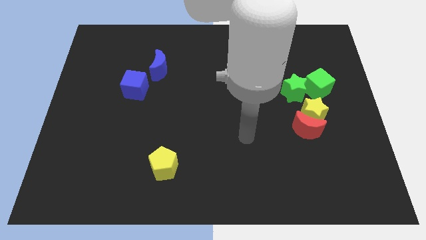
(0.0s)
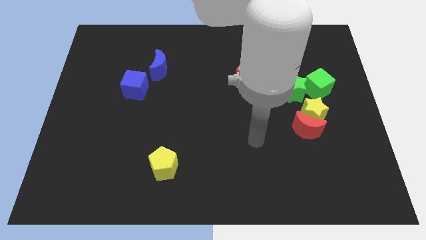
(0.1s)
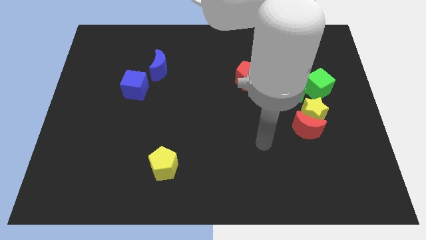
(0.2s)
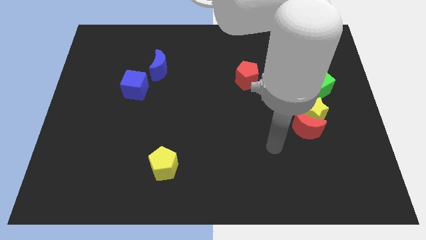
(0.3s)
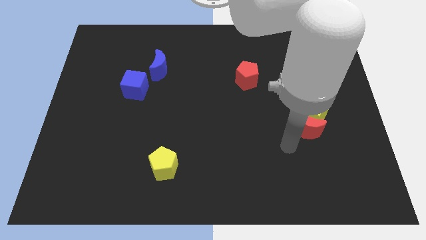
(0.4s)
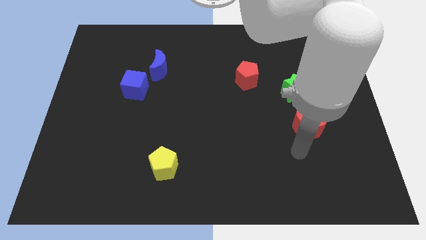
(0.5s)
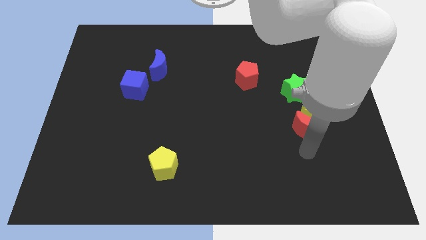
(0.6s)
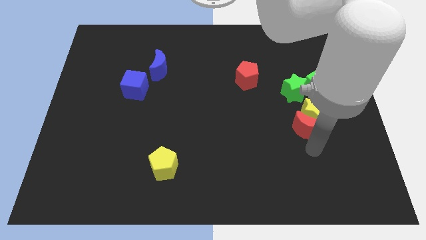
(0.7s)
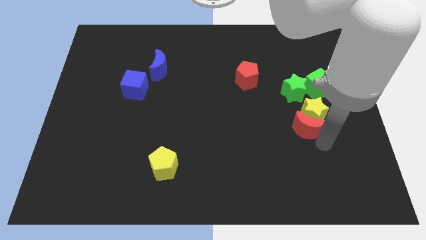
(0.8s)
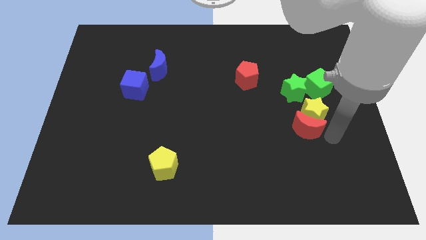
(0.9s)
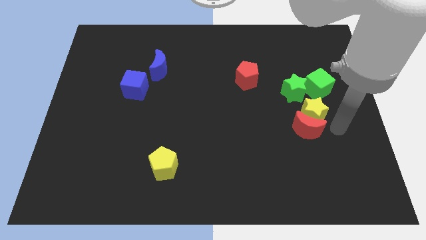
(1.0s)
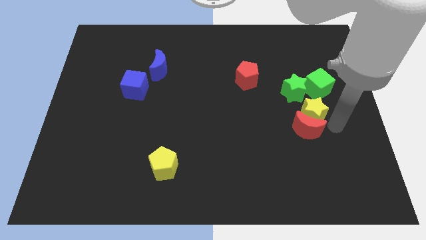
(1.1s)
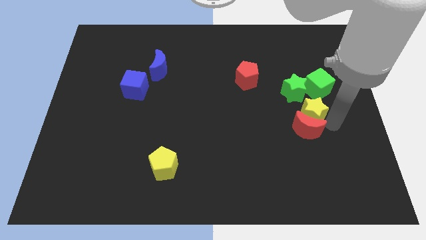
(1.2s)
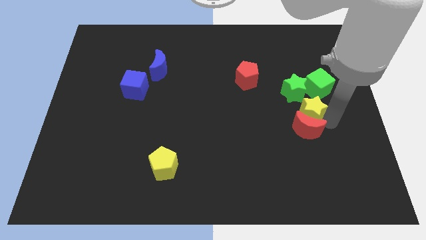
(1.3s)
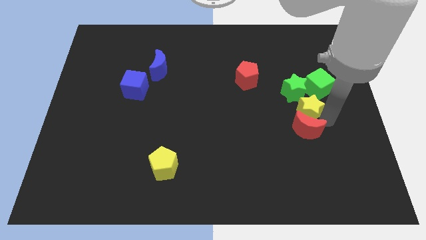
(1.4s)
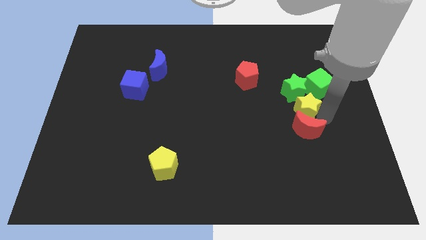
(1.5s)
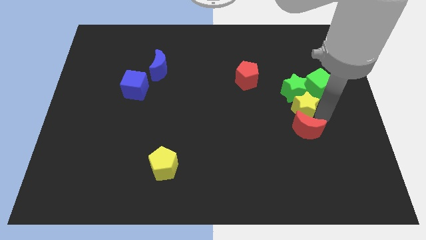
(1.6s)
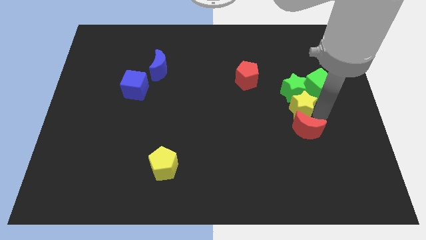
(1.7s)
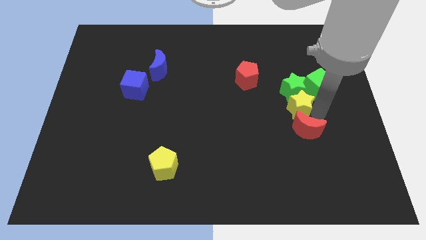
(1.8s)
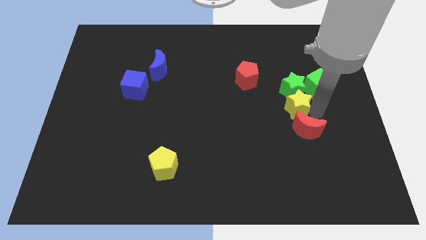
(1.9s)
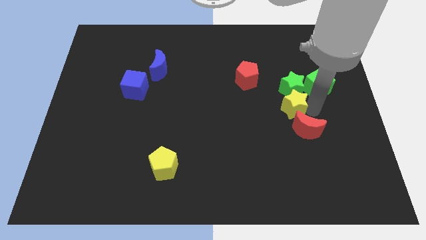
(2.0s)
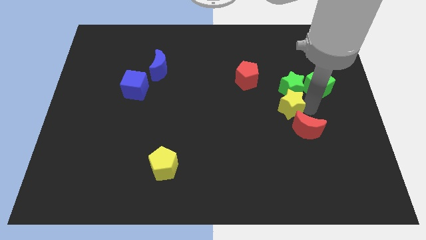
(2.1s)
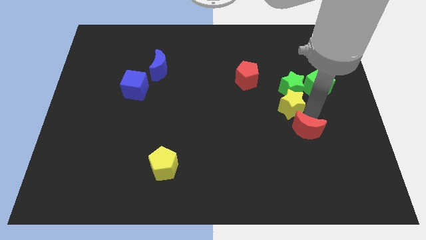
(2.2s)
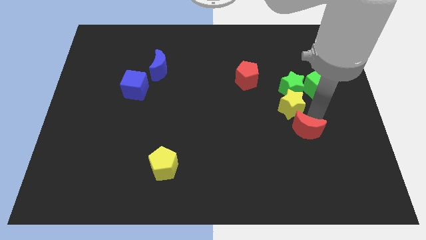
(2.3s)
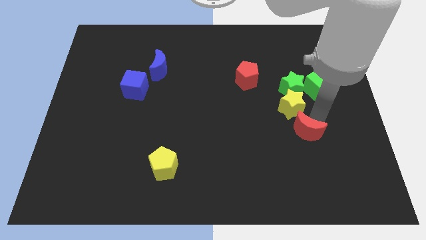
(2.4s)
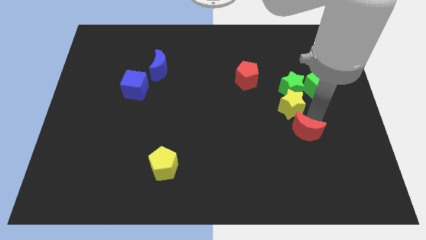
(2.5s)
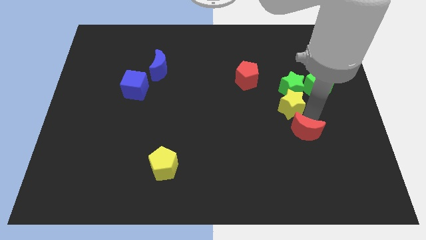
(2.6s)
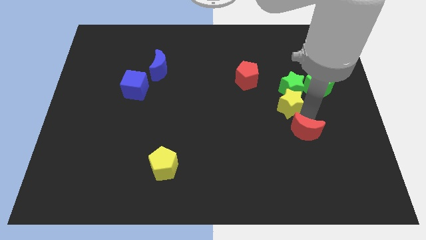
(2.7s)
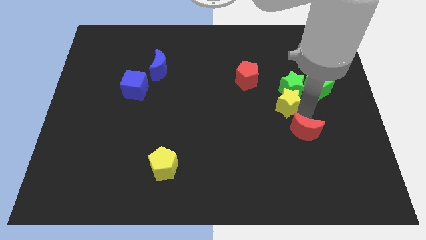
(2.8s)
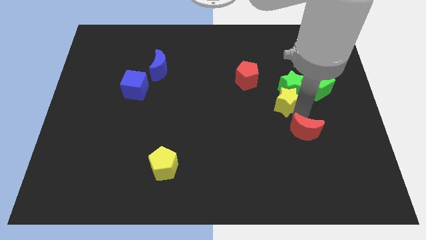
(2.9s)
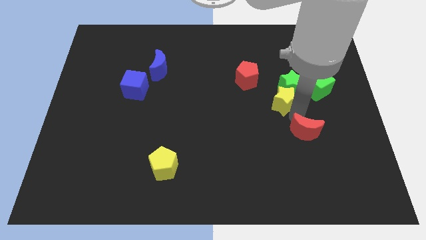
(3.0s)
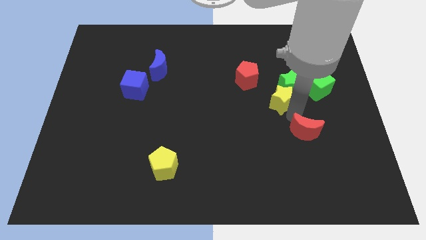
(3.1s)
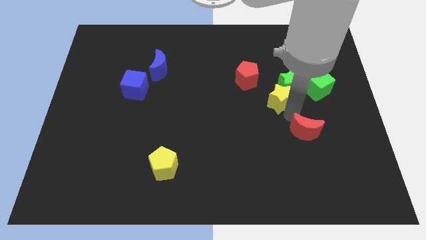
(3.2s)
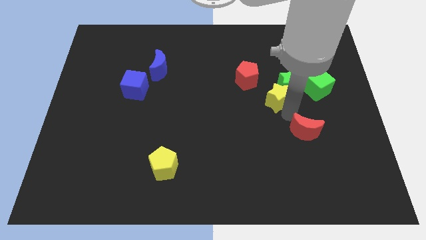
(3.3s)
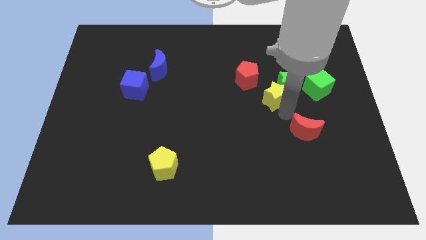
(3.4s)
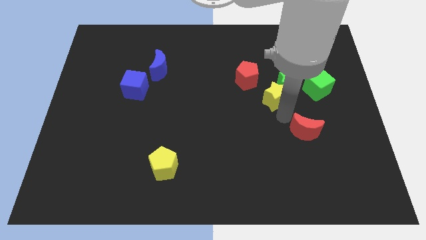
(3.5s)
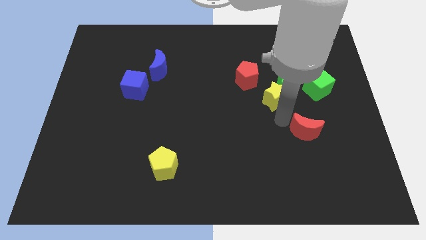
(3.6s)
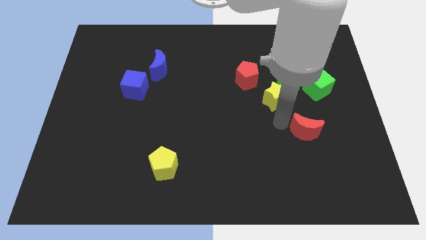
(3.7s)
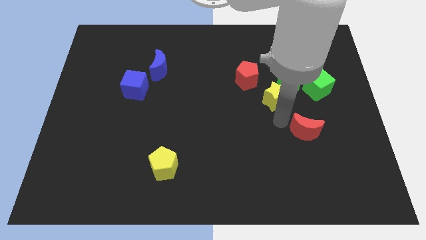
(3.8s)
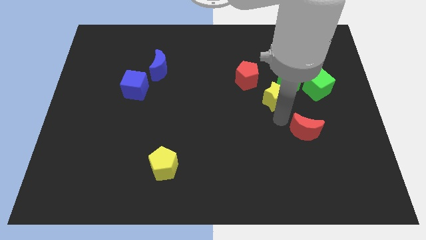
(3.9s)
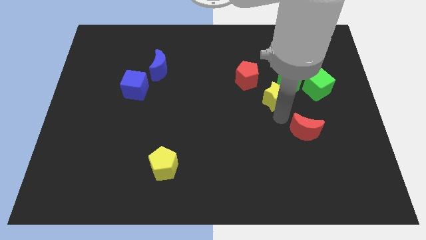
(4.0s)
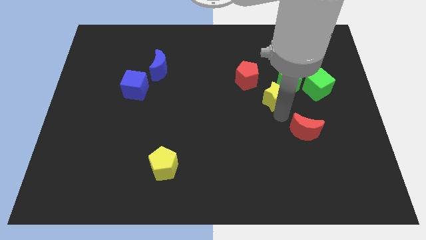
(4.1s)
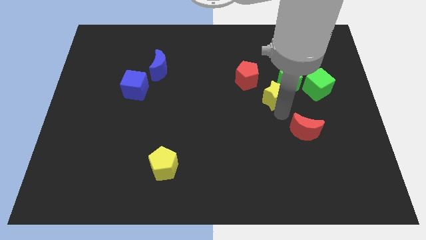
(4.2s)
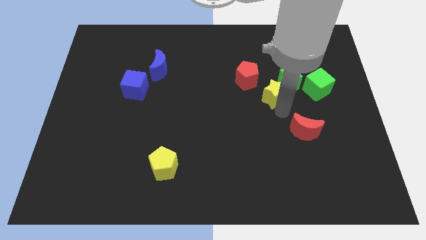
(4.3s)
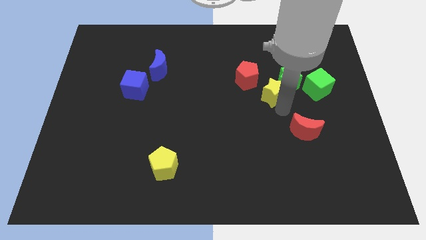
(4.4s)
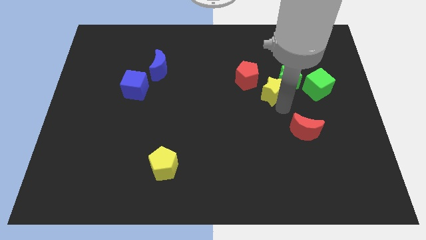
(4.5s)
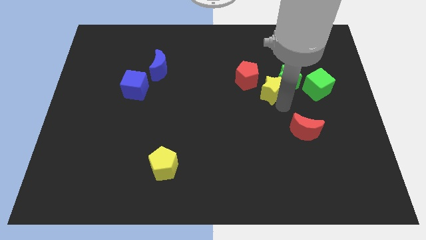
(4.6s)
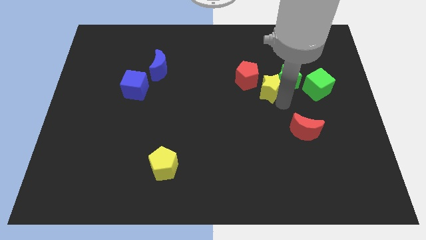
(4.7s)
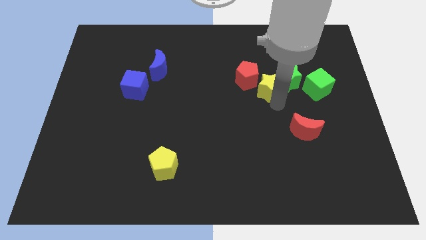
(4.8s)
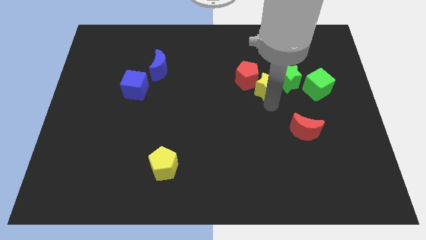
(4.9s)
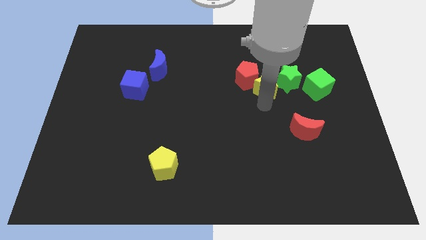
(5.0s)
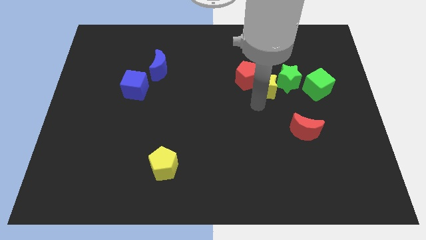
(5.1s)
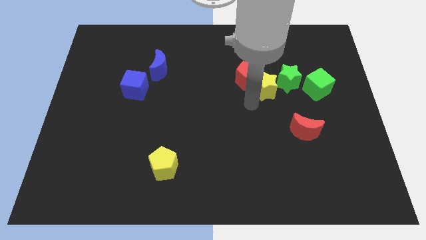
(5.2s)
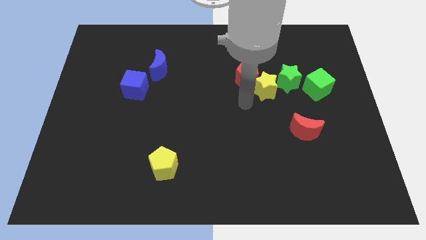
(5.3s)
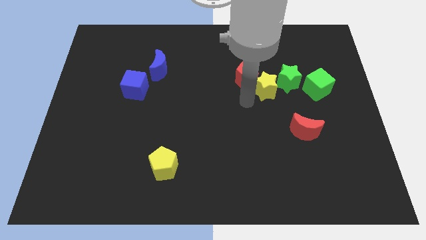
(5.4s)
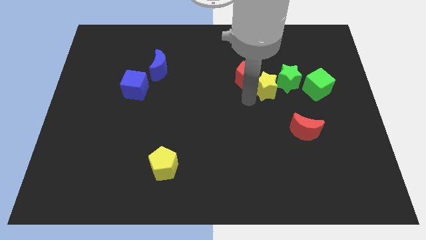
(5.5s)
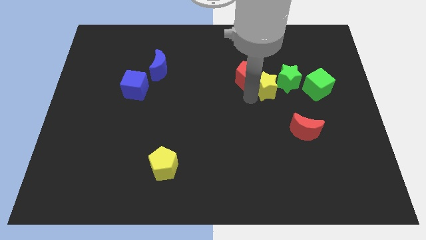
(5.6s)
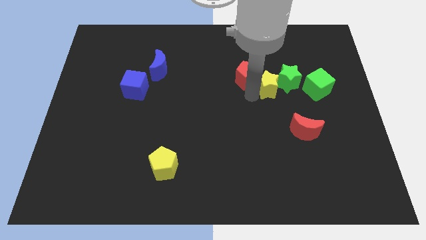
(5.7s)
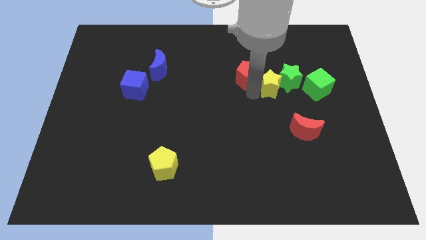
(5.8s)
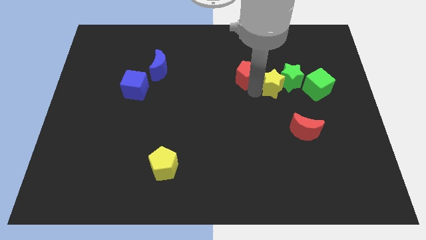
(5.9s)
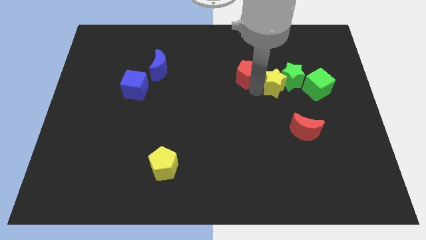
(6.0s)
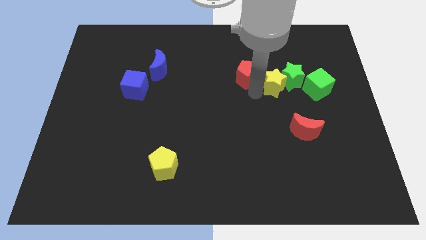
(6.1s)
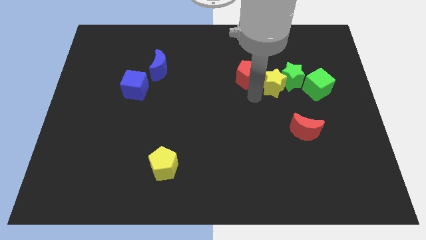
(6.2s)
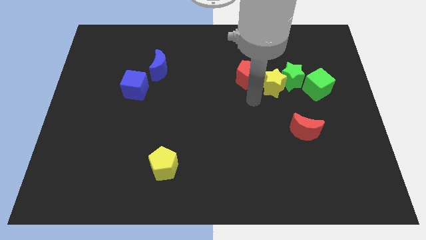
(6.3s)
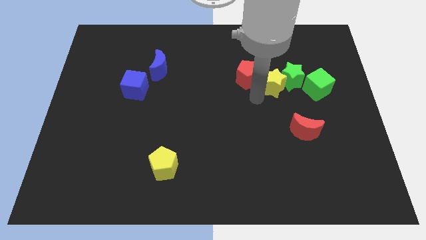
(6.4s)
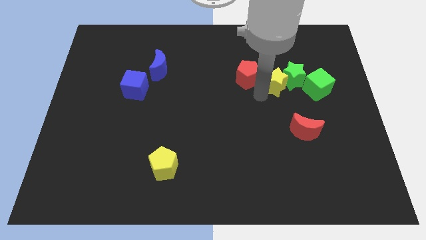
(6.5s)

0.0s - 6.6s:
move the yellow star upwards a bit

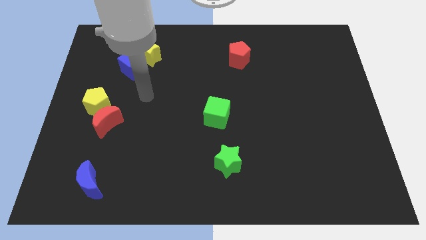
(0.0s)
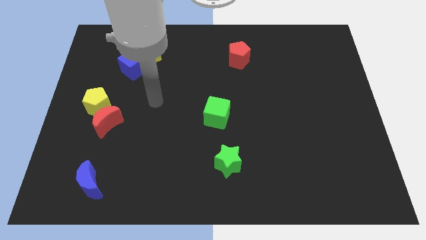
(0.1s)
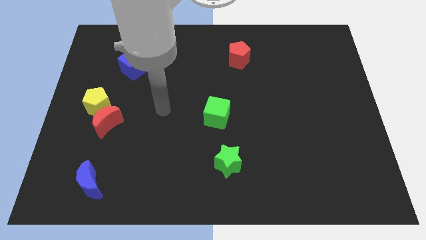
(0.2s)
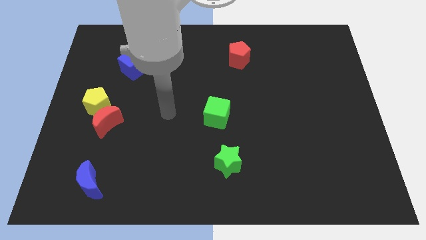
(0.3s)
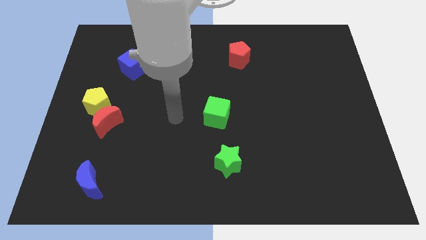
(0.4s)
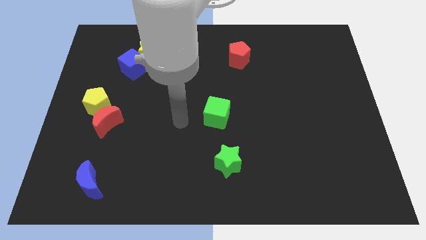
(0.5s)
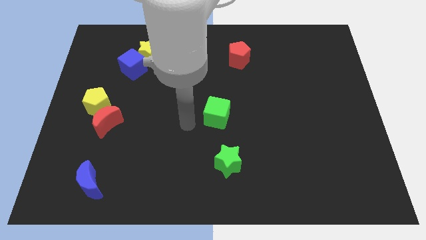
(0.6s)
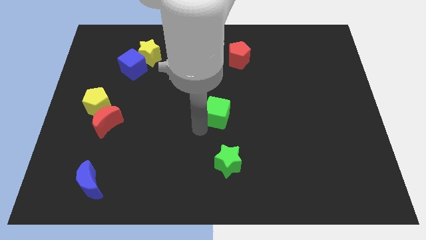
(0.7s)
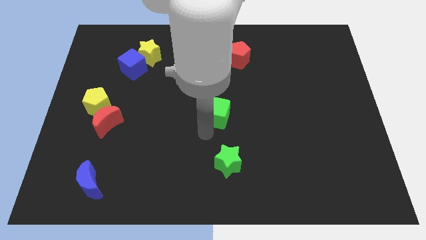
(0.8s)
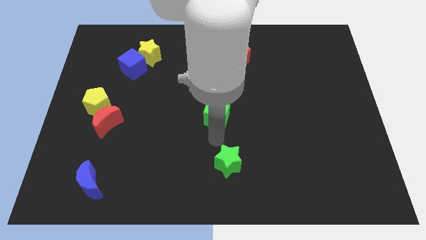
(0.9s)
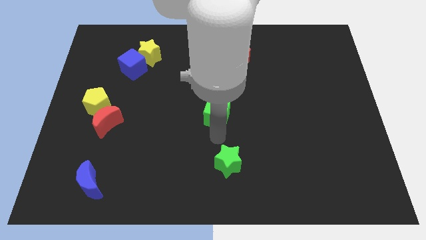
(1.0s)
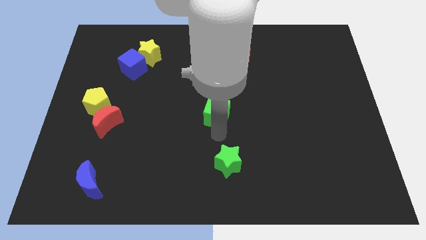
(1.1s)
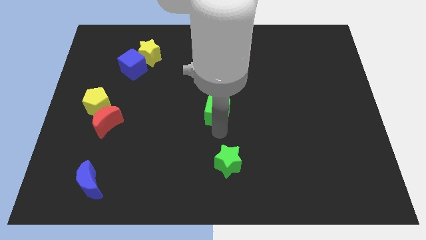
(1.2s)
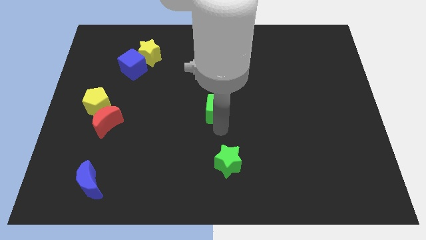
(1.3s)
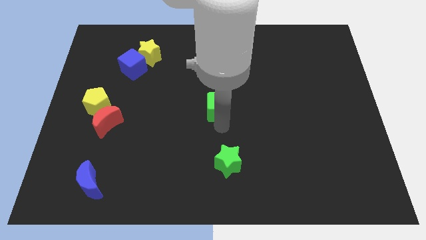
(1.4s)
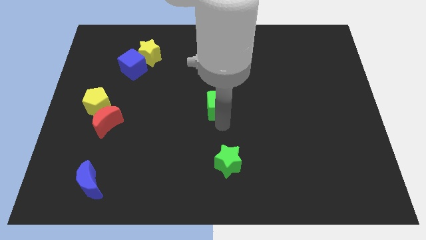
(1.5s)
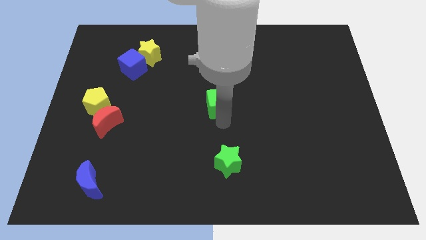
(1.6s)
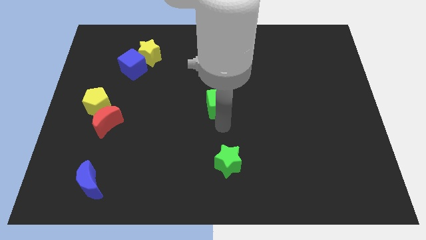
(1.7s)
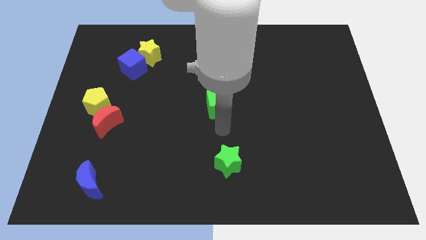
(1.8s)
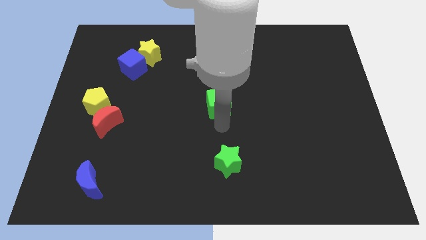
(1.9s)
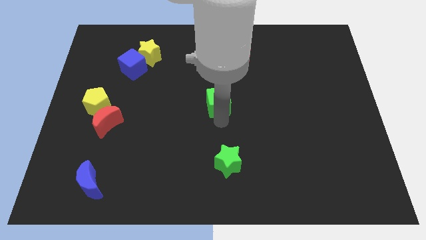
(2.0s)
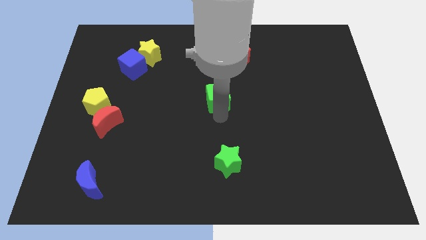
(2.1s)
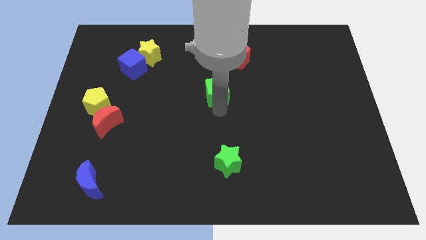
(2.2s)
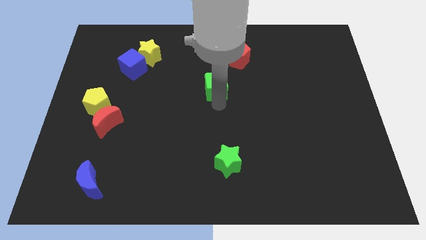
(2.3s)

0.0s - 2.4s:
slightly push the green cube up
